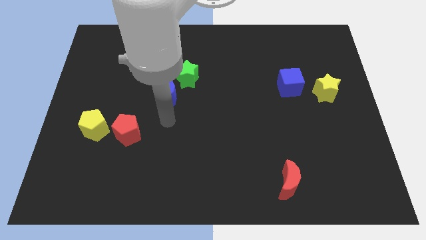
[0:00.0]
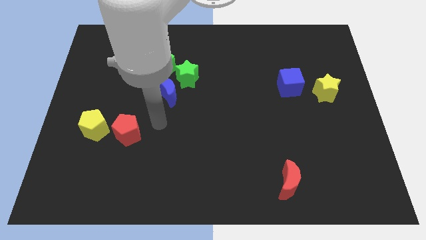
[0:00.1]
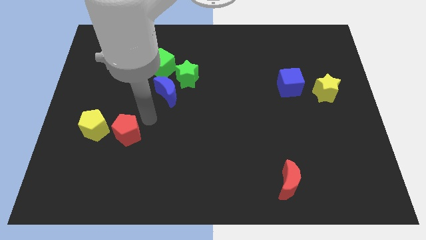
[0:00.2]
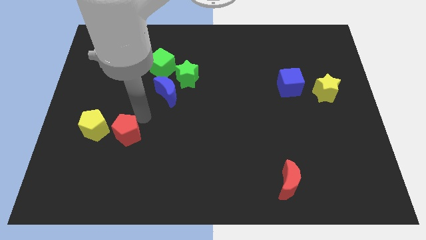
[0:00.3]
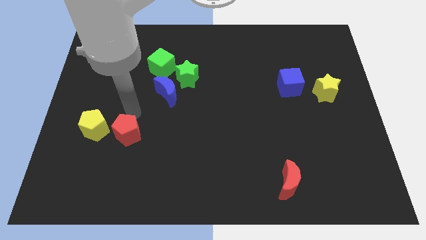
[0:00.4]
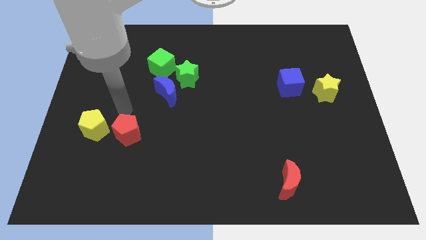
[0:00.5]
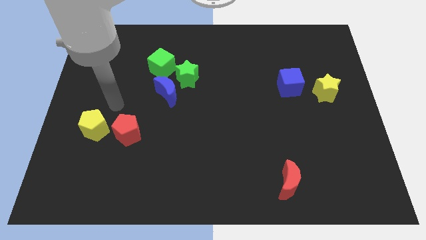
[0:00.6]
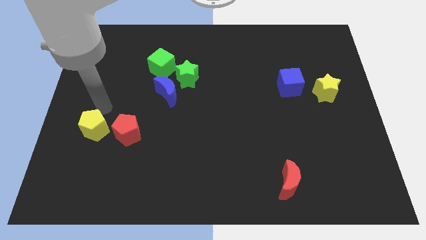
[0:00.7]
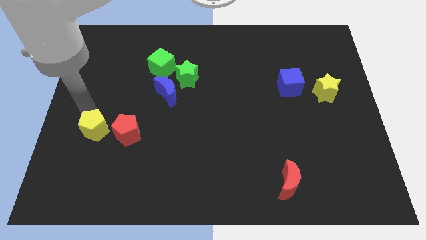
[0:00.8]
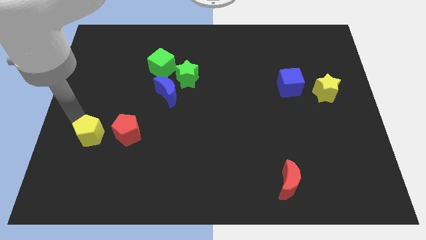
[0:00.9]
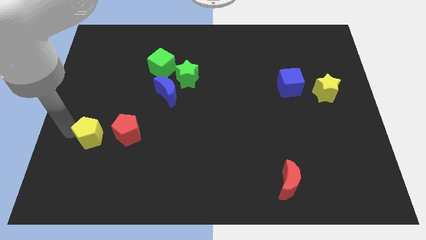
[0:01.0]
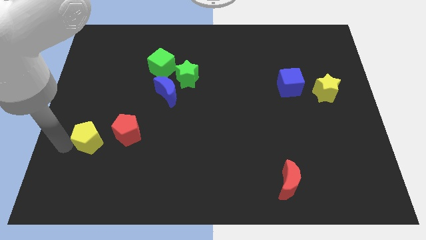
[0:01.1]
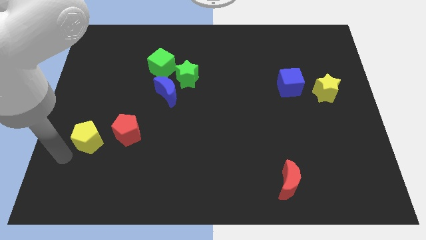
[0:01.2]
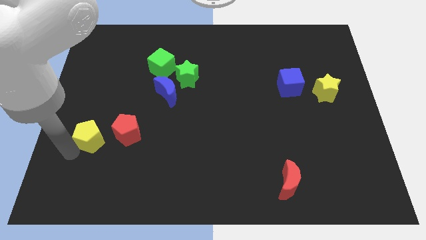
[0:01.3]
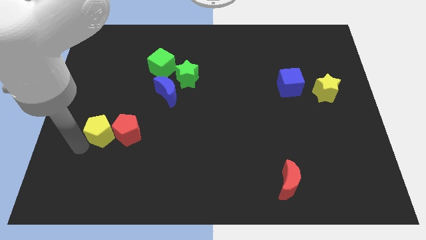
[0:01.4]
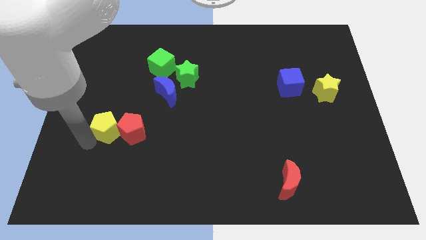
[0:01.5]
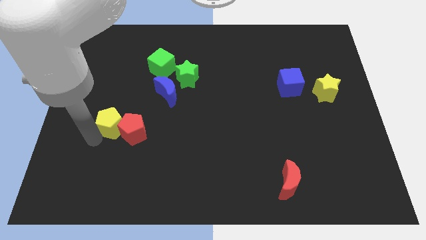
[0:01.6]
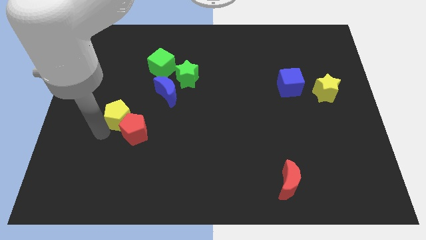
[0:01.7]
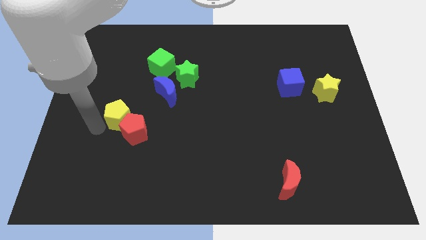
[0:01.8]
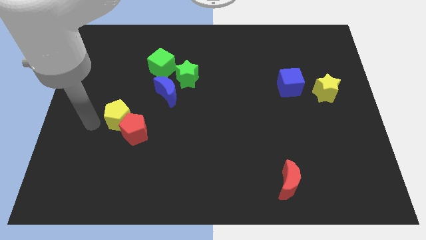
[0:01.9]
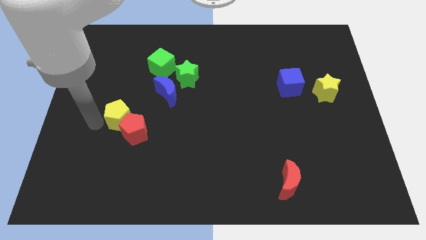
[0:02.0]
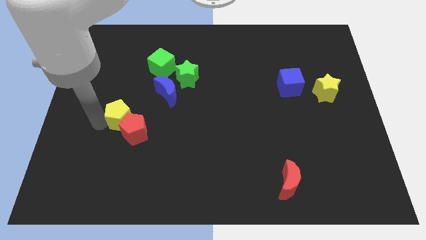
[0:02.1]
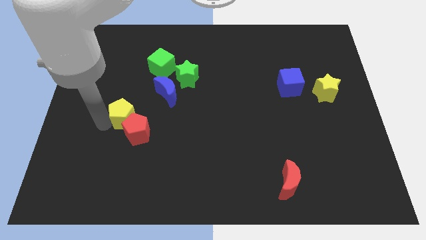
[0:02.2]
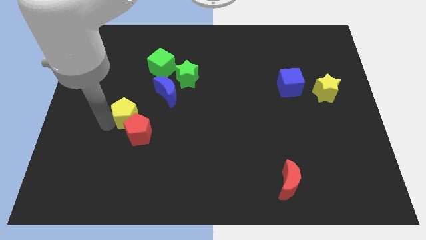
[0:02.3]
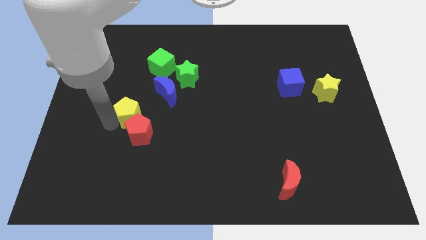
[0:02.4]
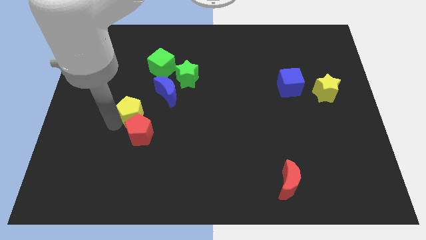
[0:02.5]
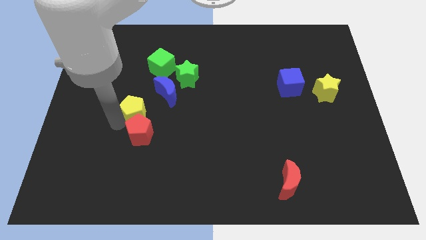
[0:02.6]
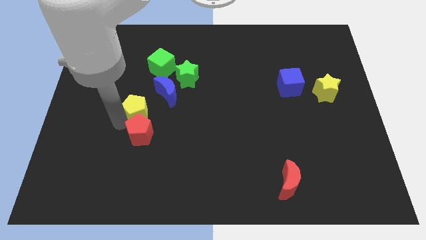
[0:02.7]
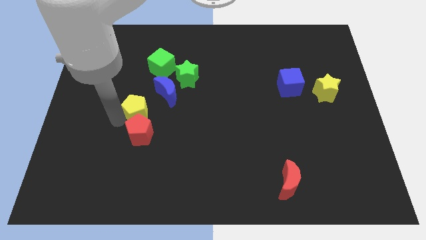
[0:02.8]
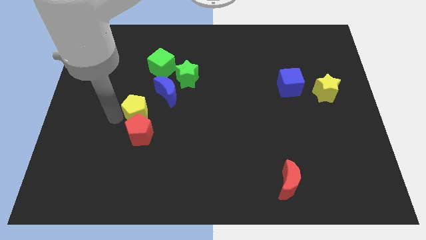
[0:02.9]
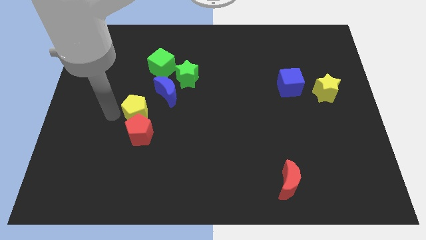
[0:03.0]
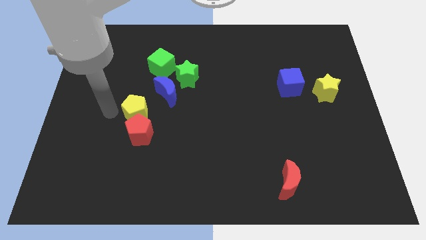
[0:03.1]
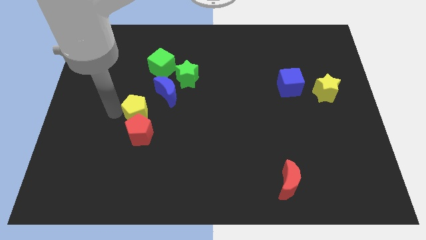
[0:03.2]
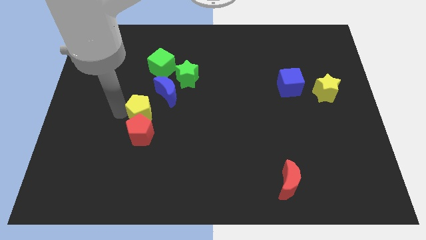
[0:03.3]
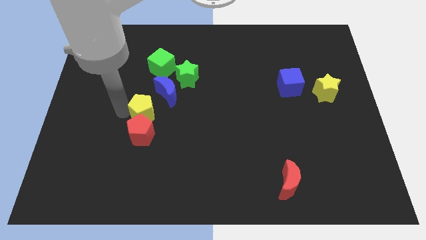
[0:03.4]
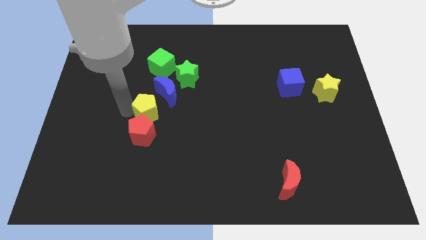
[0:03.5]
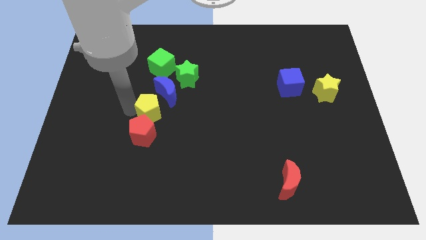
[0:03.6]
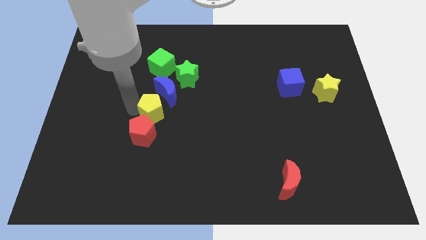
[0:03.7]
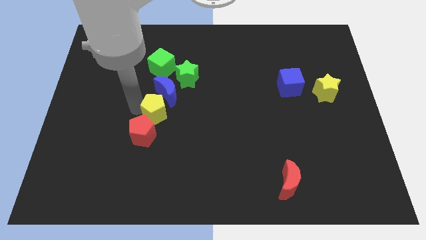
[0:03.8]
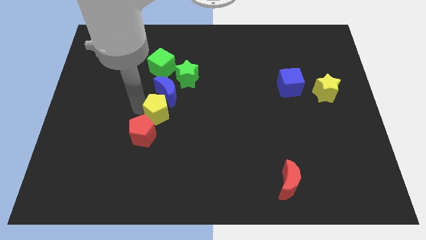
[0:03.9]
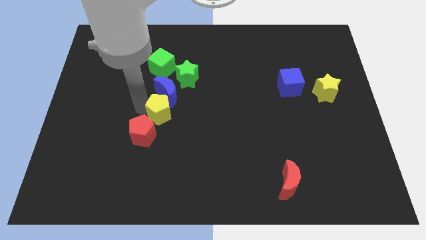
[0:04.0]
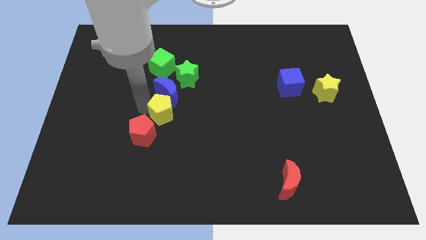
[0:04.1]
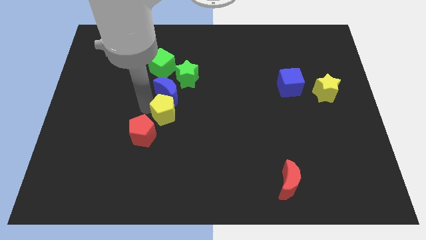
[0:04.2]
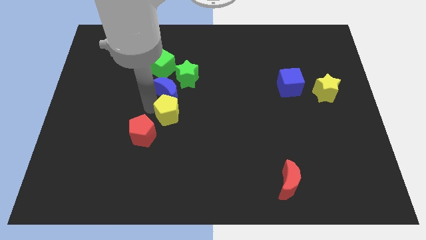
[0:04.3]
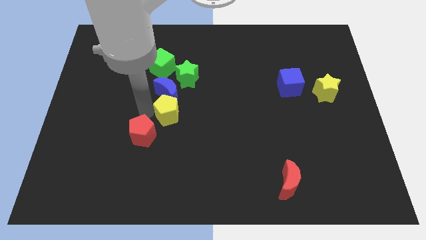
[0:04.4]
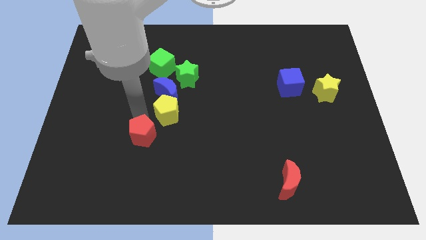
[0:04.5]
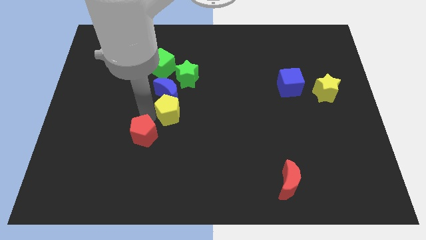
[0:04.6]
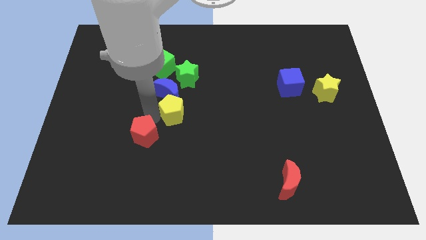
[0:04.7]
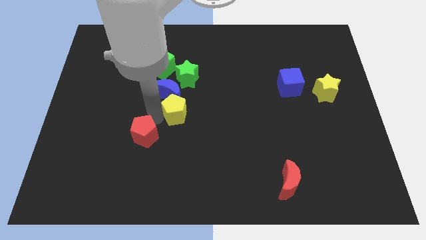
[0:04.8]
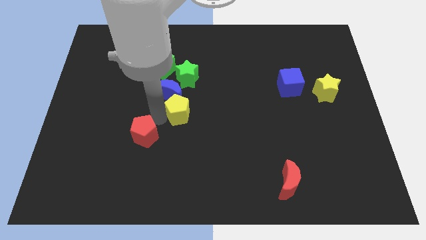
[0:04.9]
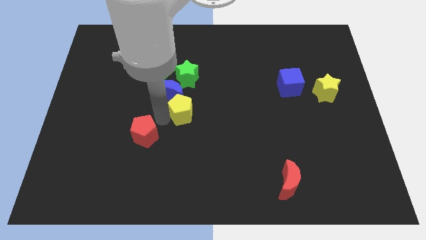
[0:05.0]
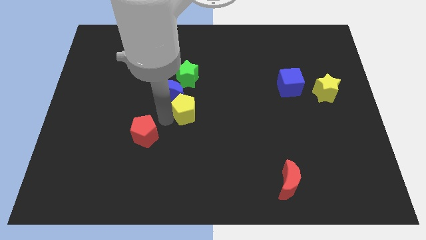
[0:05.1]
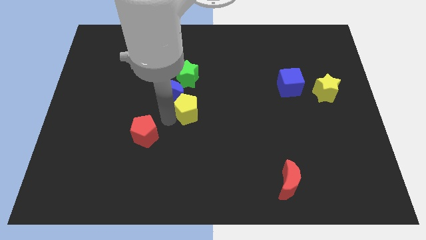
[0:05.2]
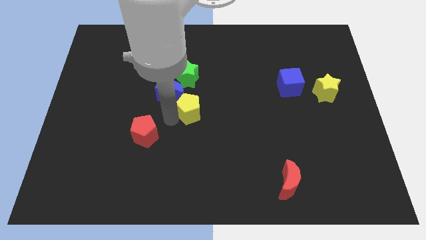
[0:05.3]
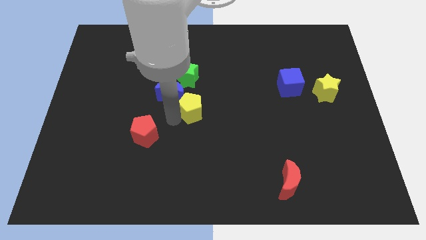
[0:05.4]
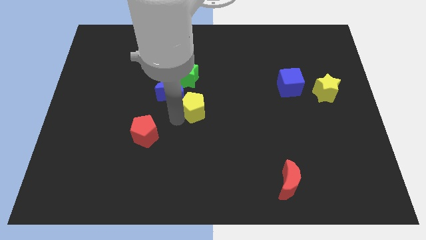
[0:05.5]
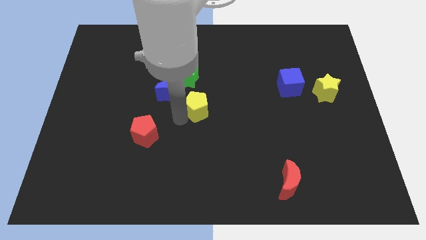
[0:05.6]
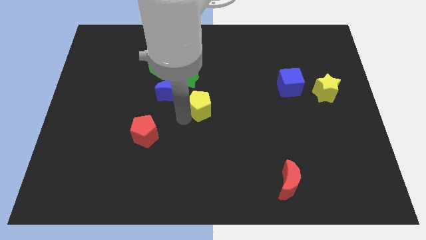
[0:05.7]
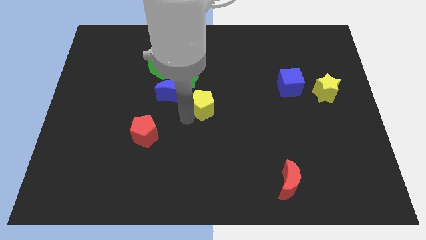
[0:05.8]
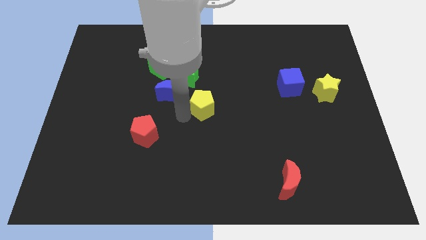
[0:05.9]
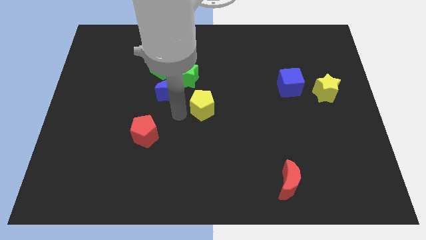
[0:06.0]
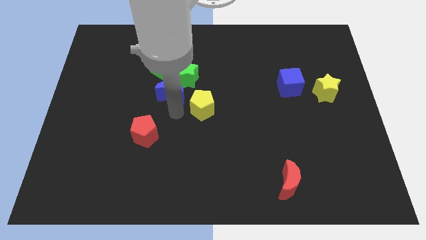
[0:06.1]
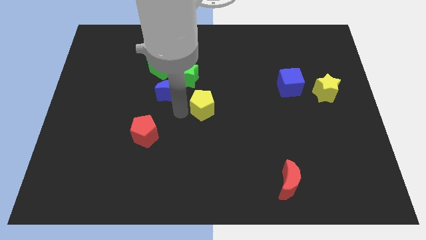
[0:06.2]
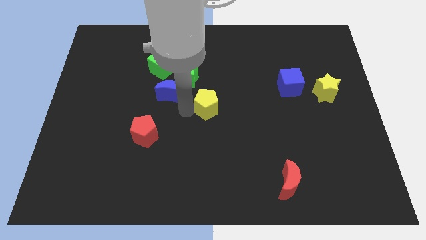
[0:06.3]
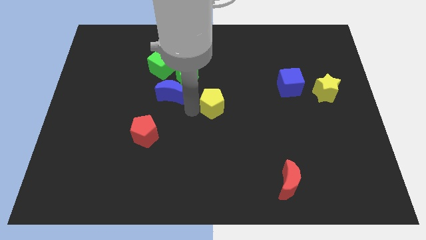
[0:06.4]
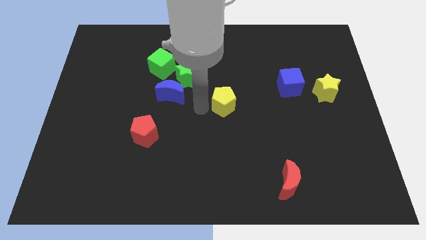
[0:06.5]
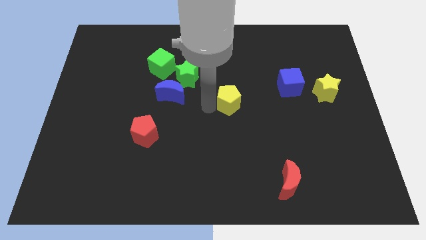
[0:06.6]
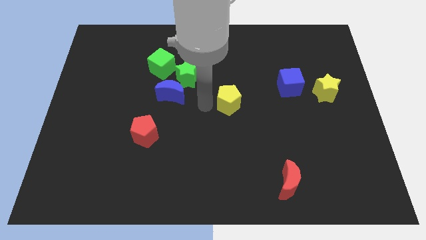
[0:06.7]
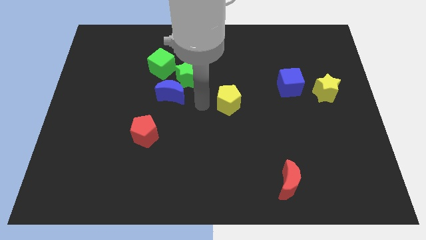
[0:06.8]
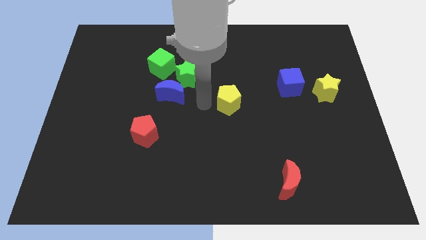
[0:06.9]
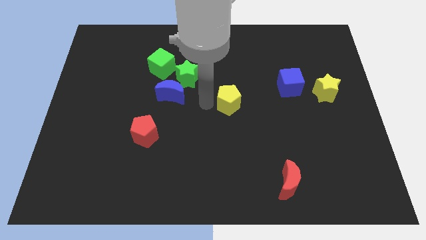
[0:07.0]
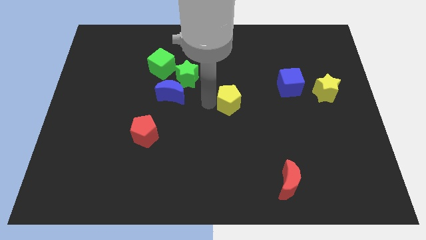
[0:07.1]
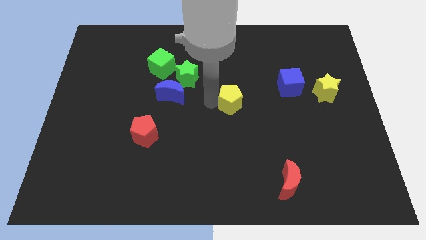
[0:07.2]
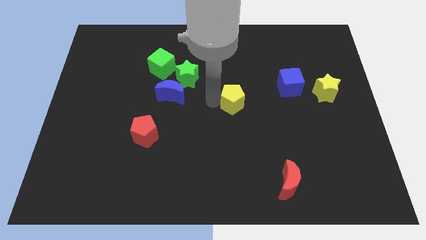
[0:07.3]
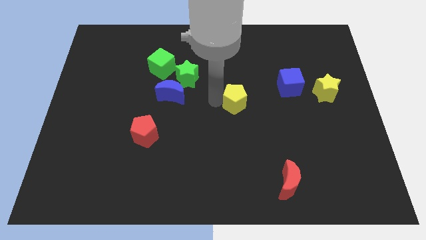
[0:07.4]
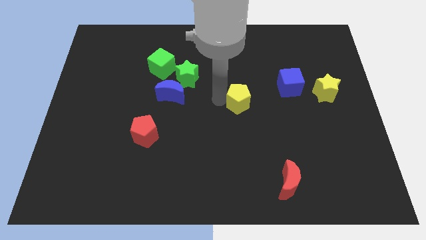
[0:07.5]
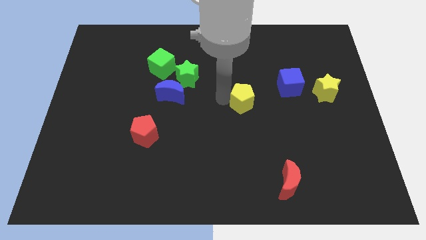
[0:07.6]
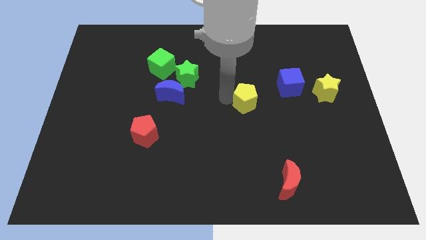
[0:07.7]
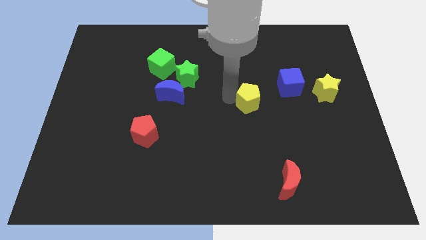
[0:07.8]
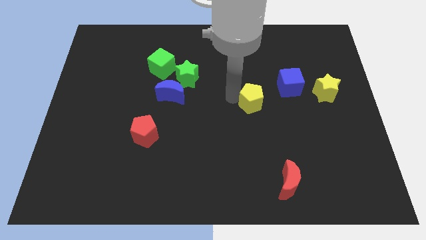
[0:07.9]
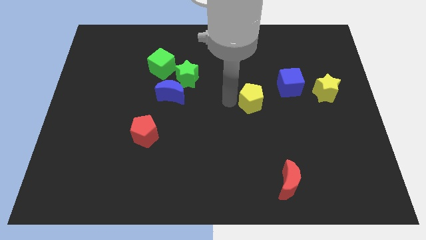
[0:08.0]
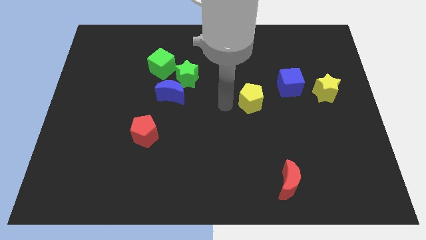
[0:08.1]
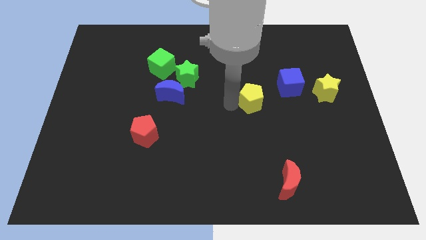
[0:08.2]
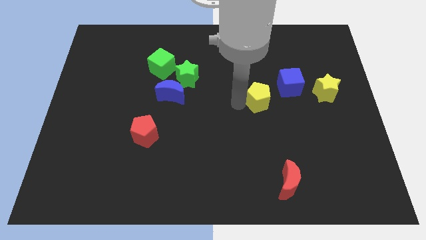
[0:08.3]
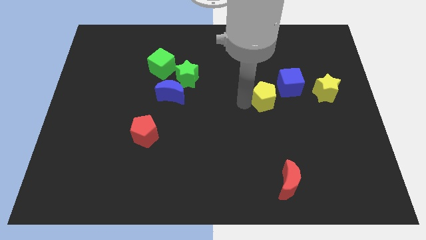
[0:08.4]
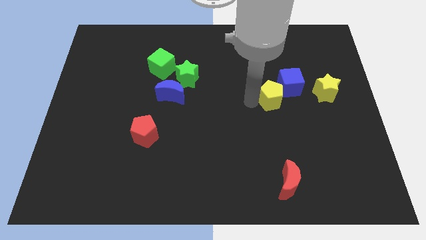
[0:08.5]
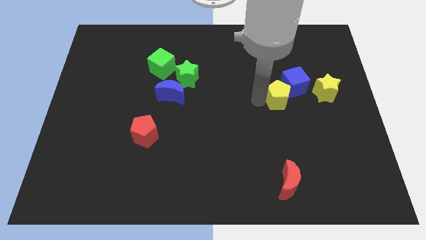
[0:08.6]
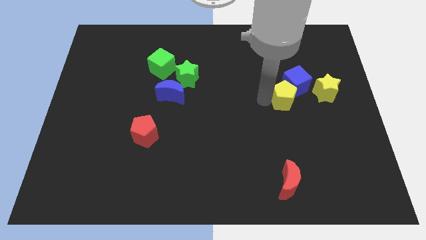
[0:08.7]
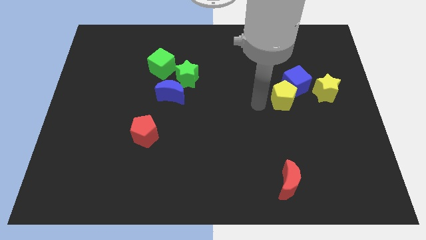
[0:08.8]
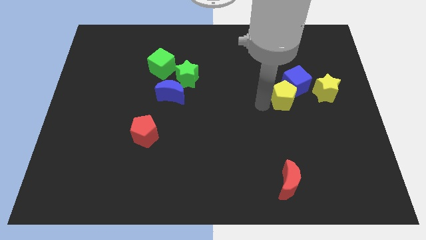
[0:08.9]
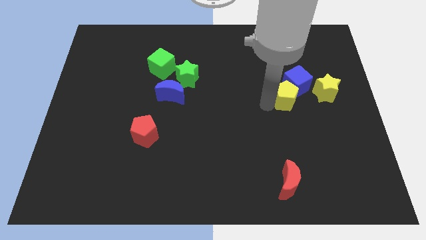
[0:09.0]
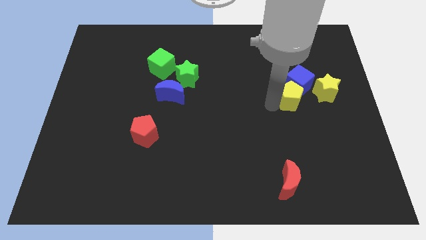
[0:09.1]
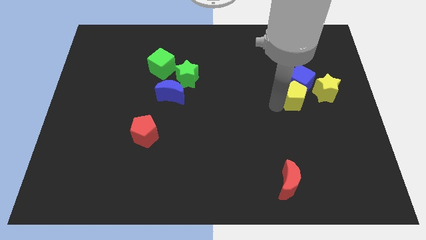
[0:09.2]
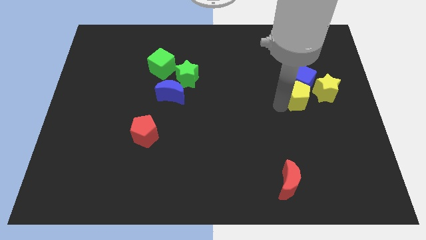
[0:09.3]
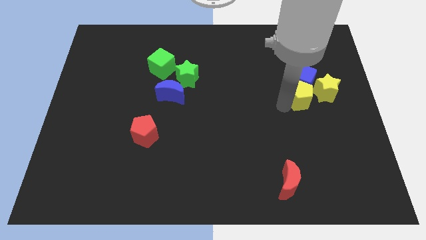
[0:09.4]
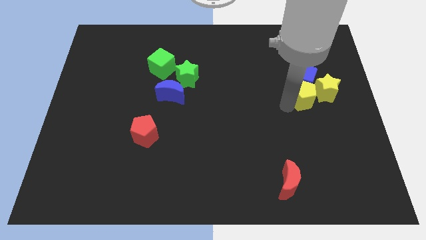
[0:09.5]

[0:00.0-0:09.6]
slide the yellow pentagon next to the yellow star
